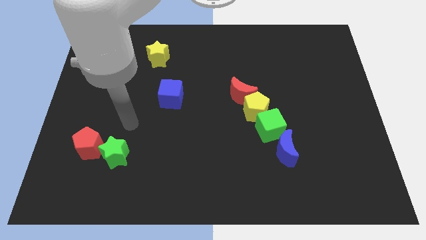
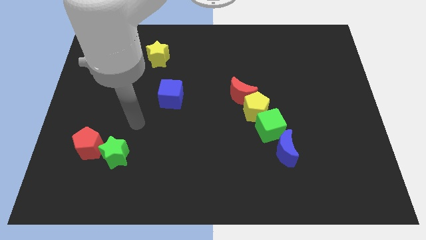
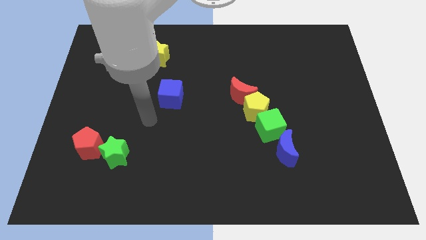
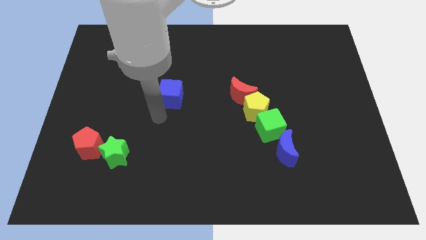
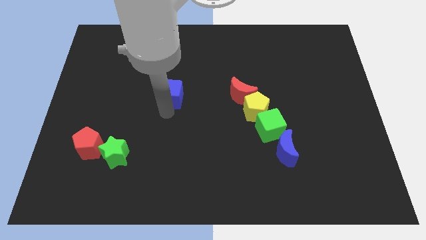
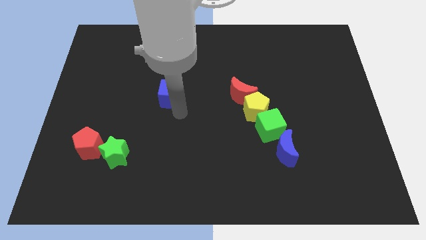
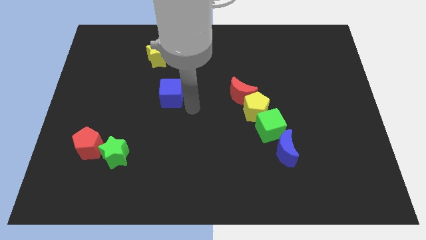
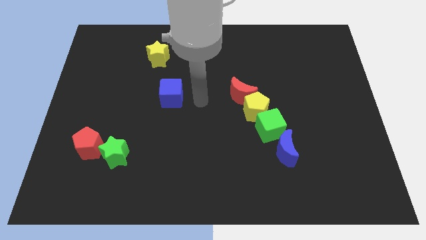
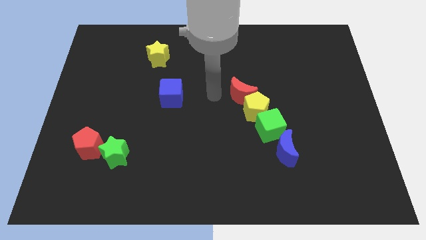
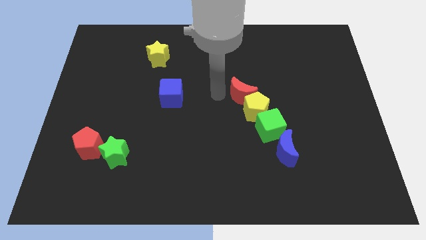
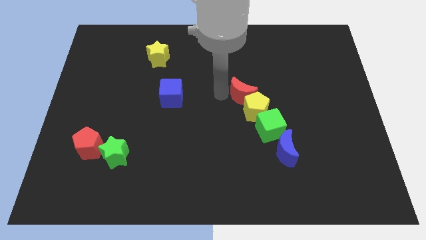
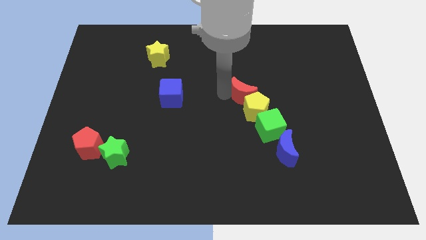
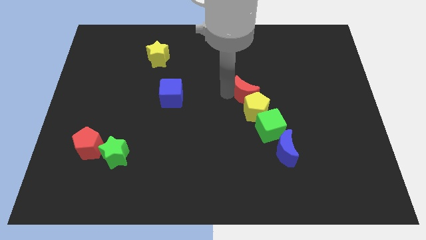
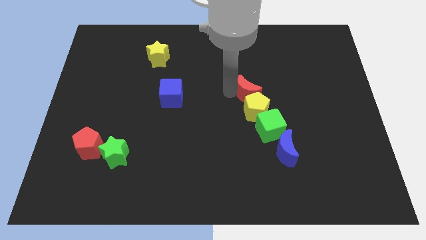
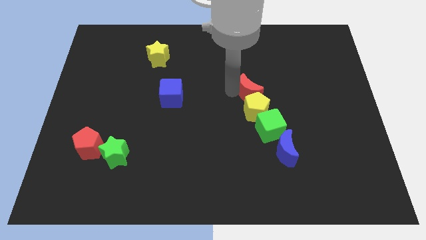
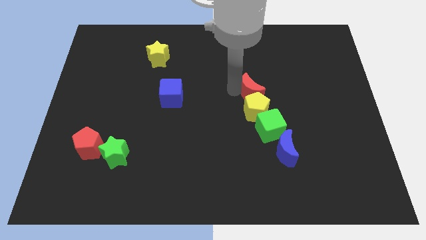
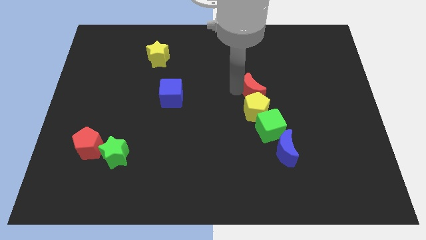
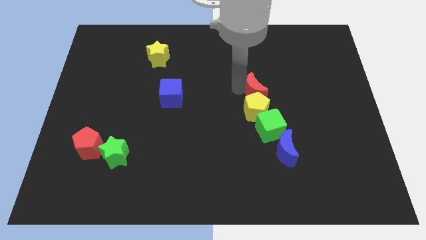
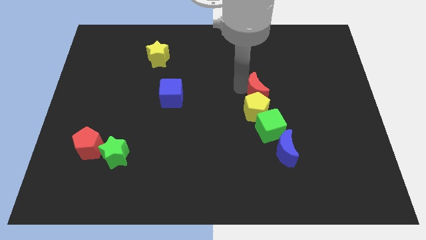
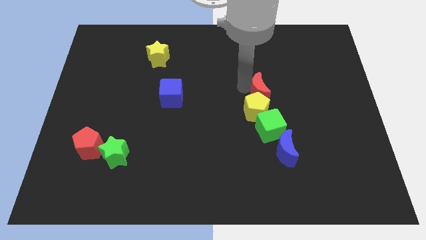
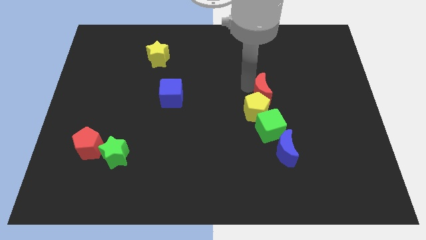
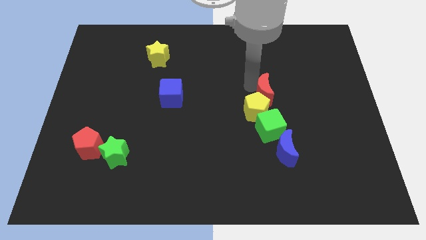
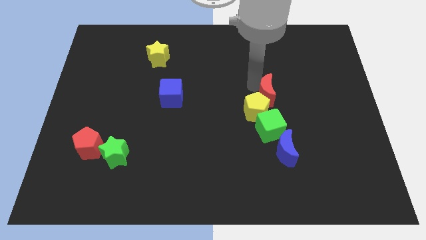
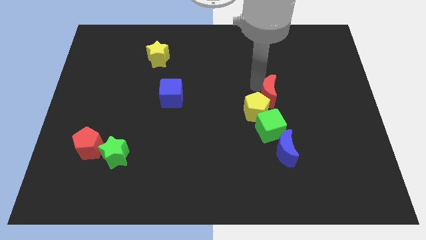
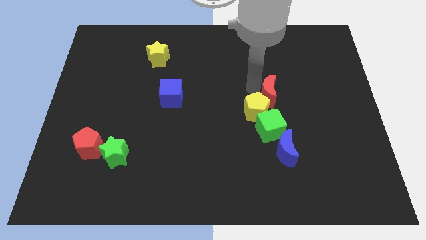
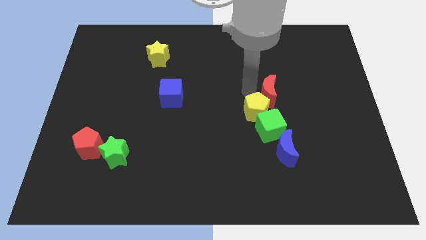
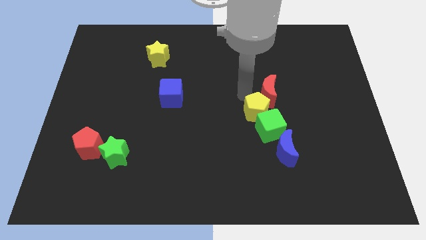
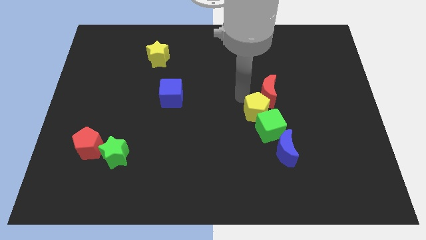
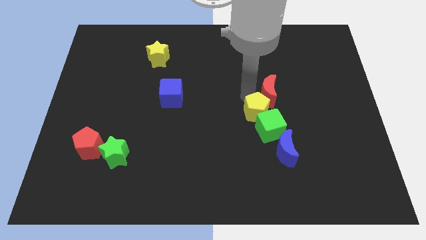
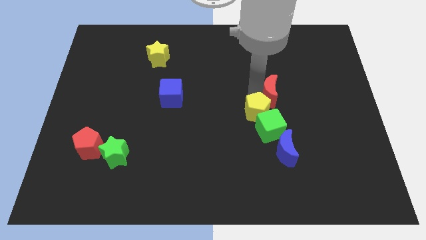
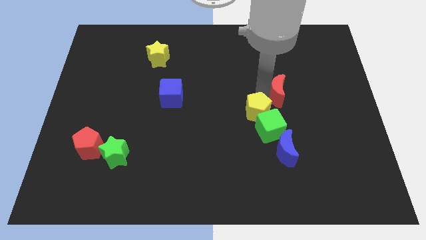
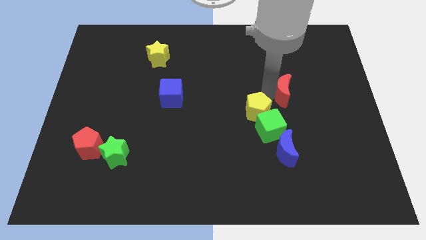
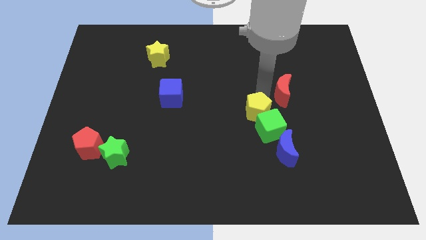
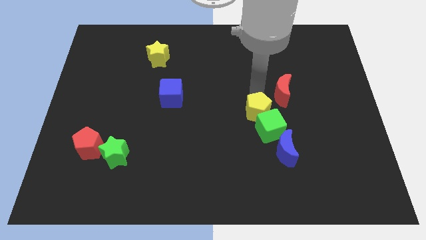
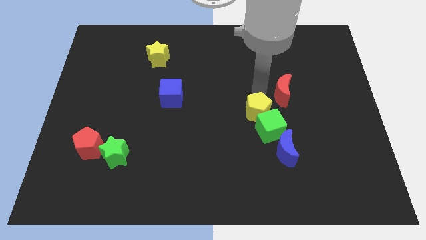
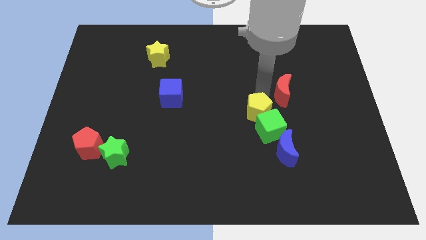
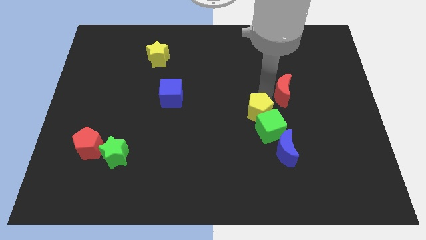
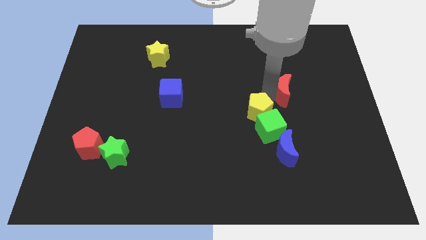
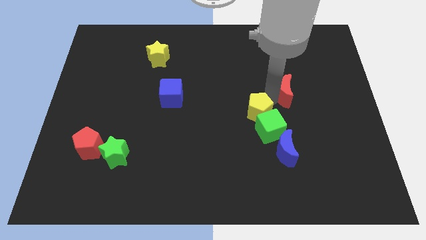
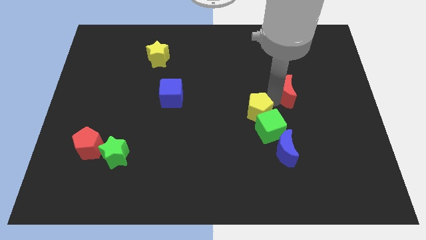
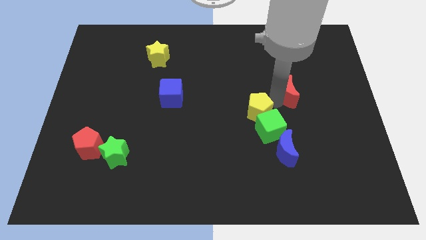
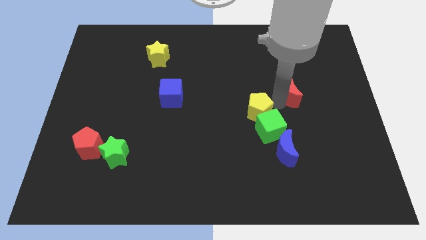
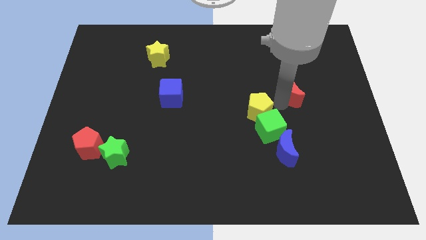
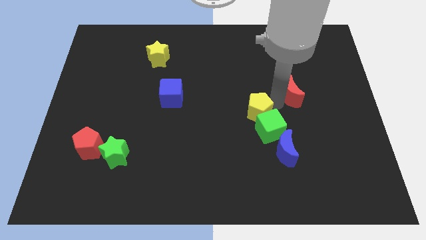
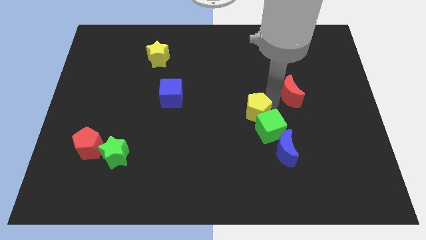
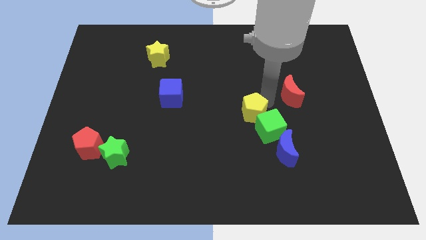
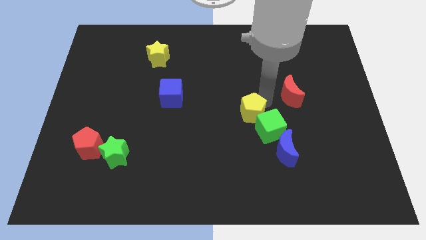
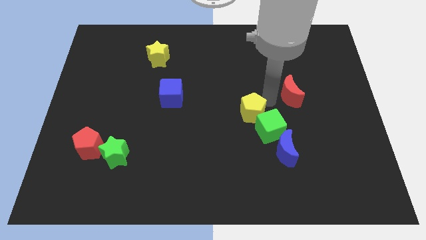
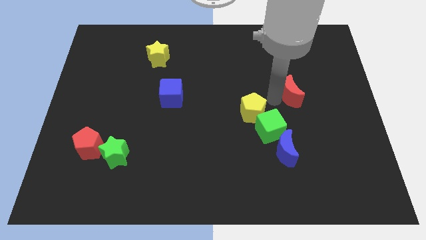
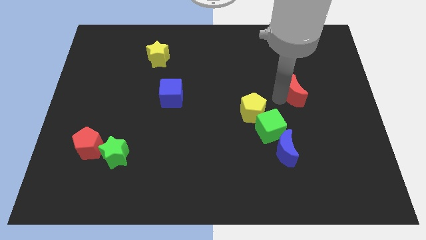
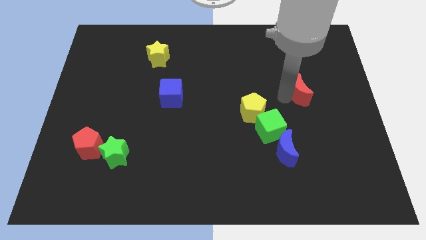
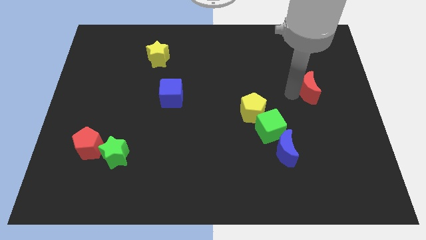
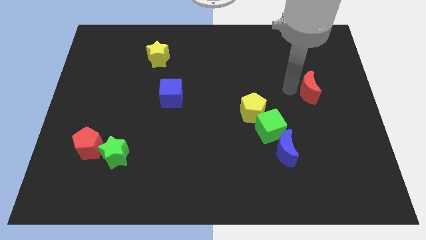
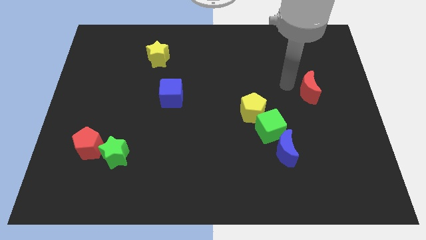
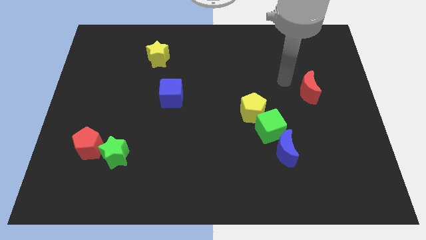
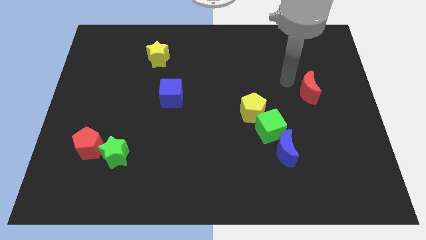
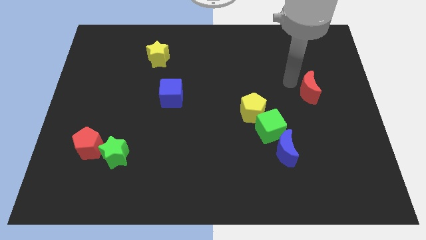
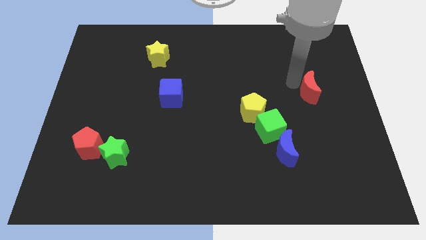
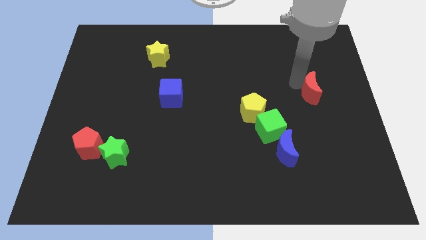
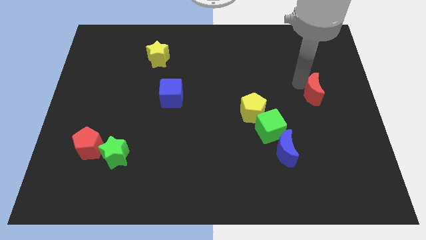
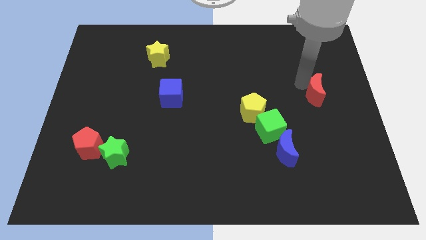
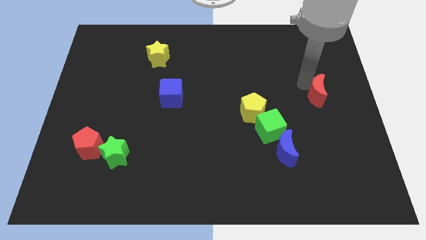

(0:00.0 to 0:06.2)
slide the red moon to the right side of the board

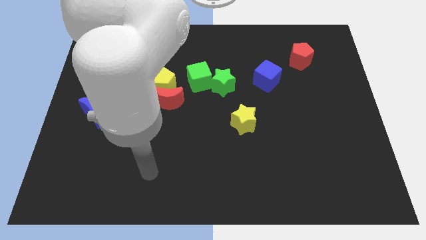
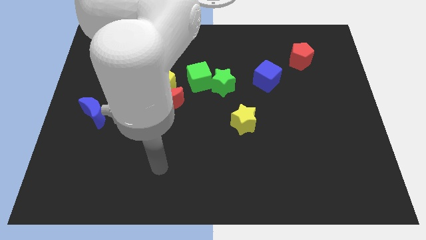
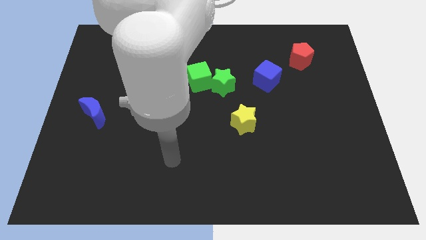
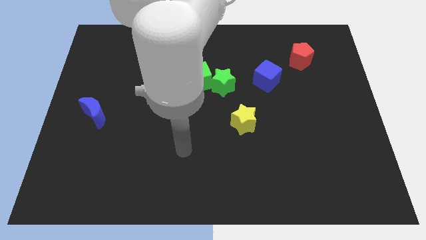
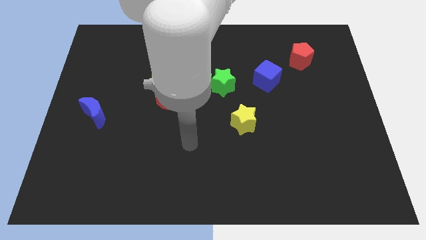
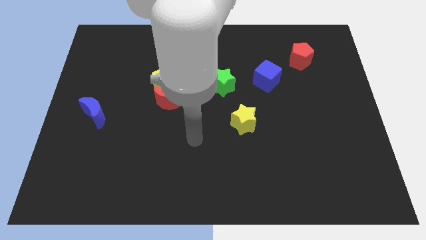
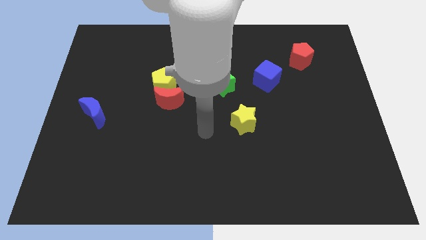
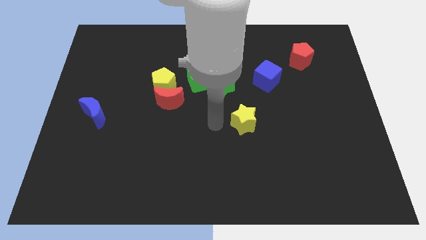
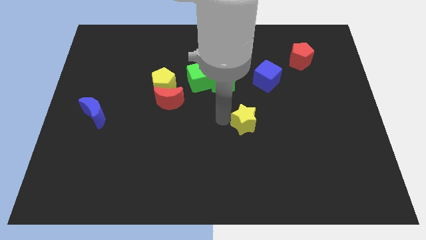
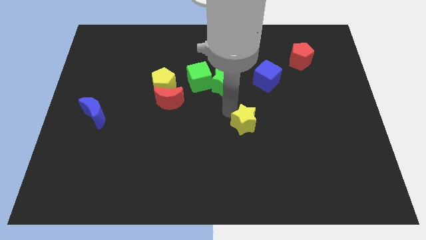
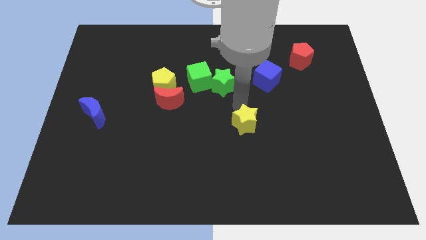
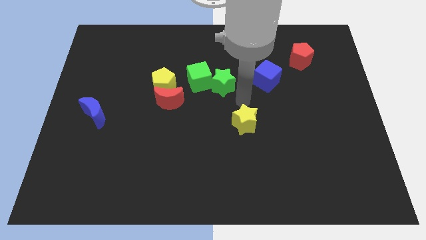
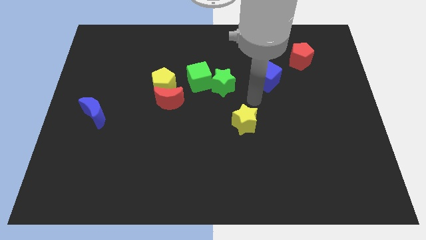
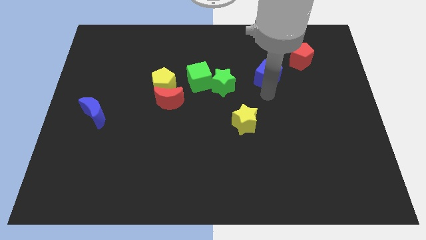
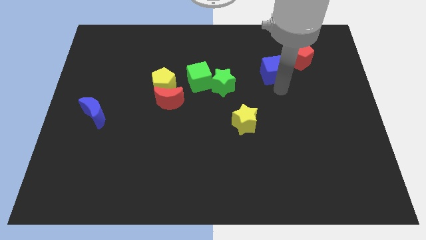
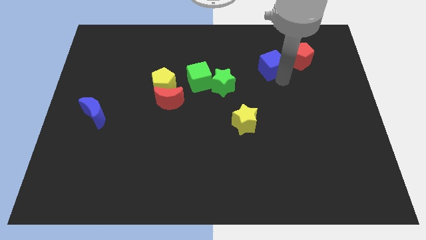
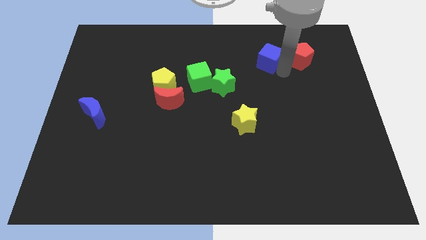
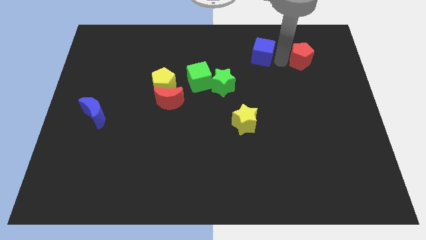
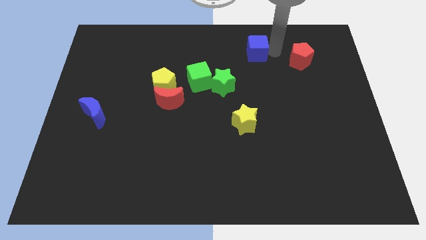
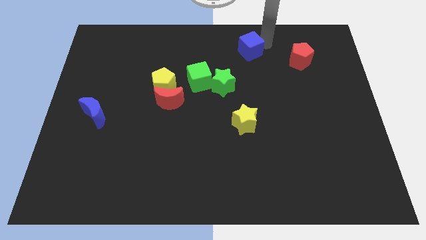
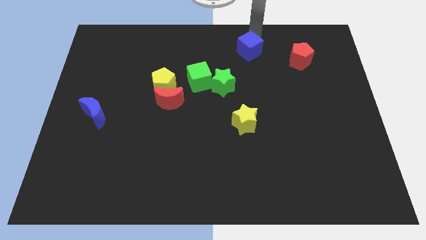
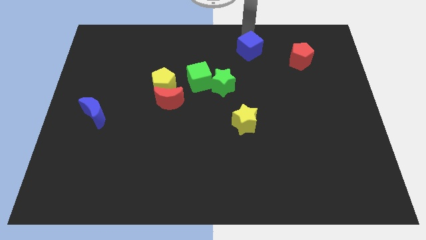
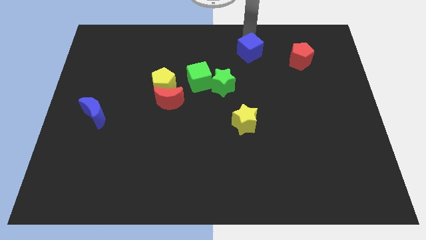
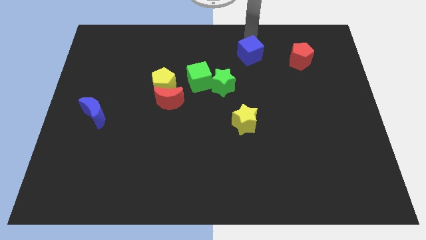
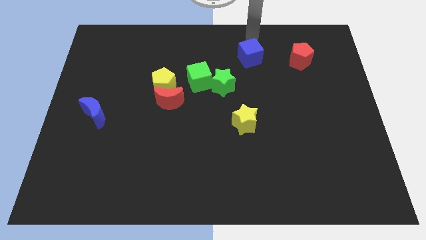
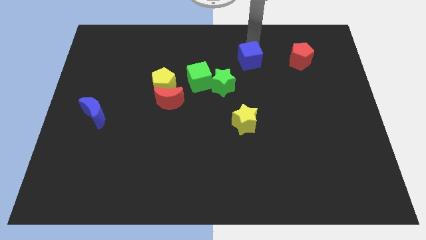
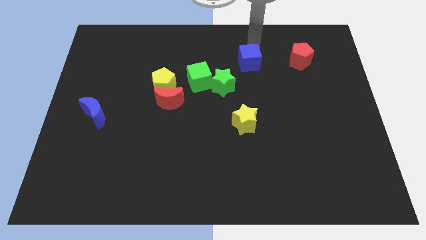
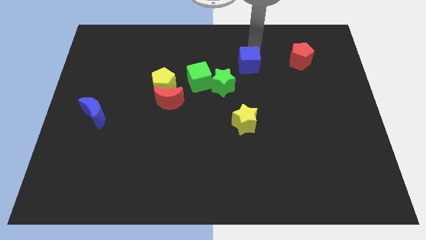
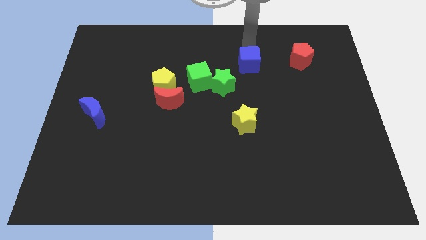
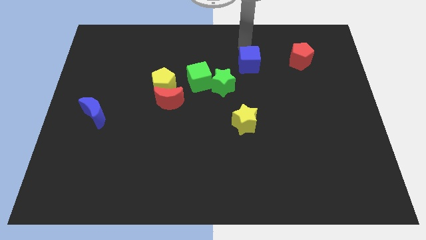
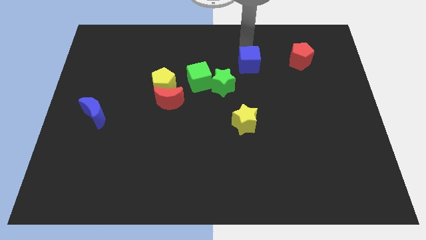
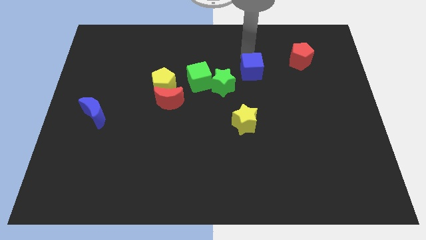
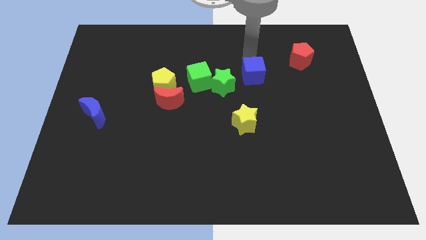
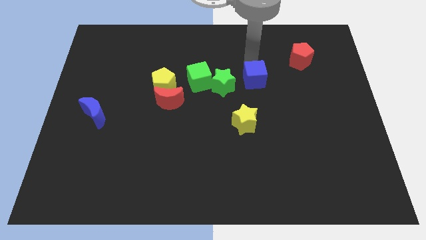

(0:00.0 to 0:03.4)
put the blue cube to the center of the board
